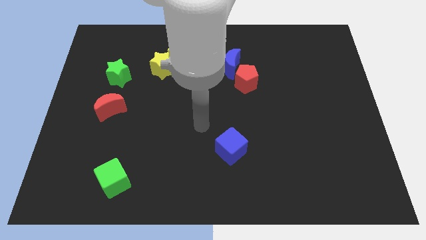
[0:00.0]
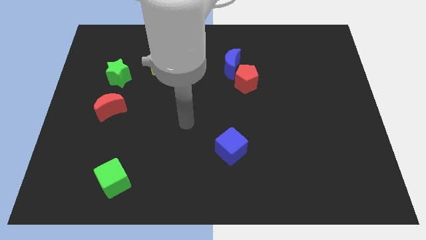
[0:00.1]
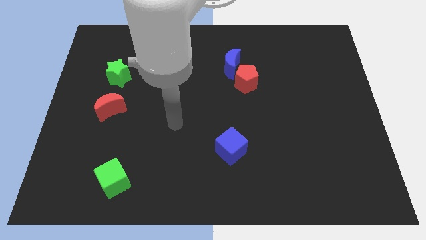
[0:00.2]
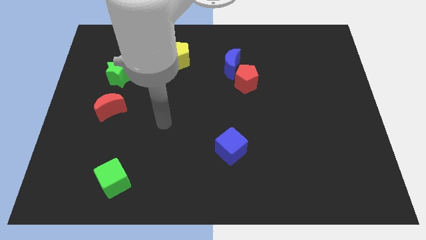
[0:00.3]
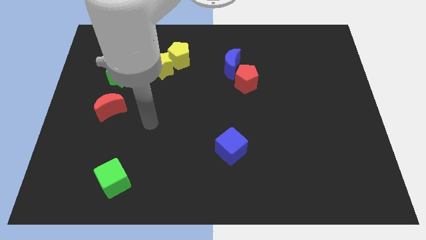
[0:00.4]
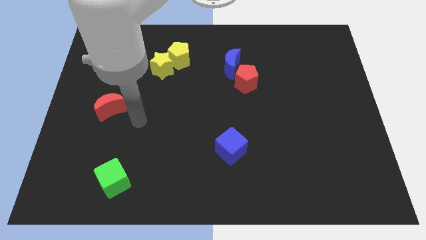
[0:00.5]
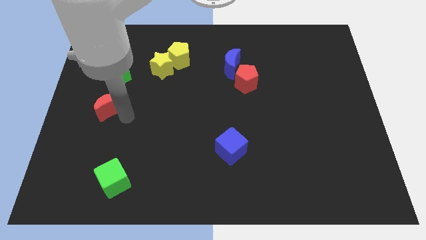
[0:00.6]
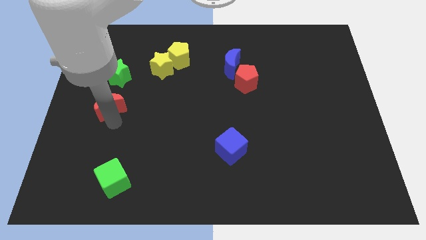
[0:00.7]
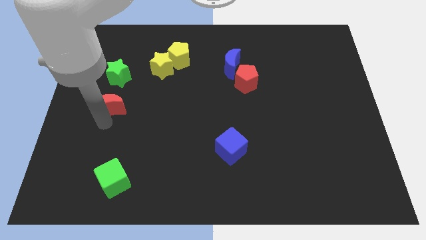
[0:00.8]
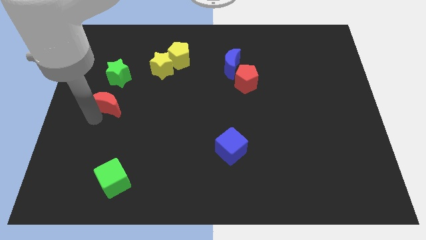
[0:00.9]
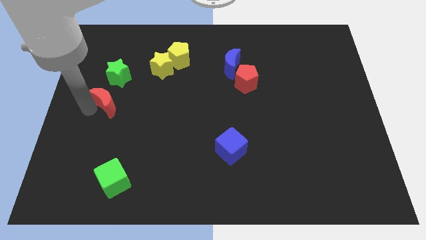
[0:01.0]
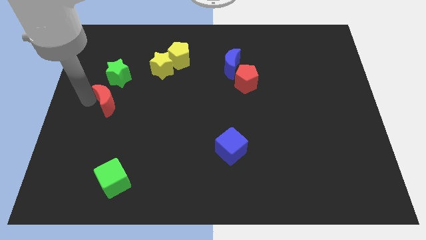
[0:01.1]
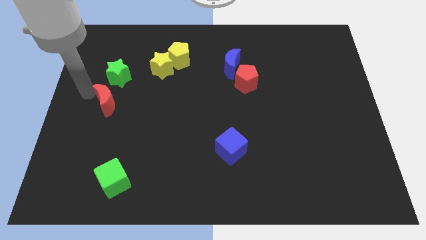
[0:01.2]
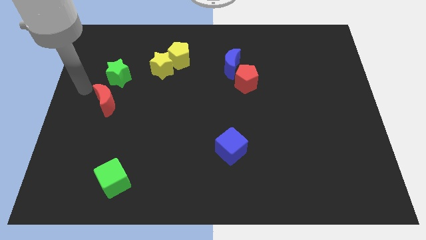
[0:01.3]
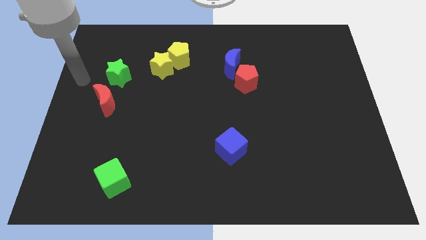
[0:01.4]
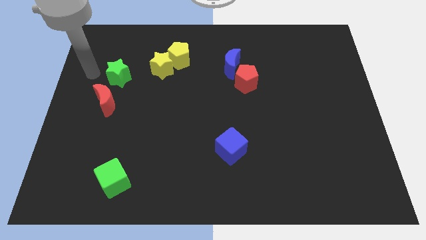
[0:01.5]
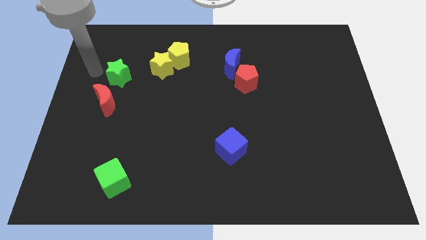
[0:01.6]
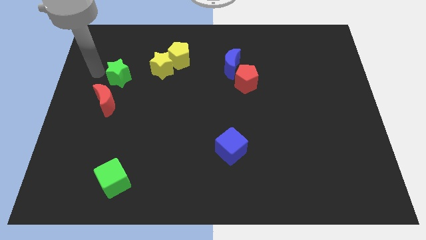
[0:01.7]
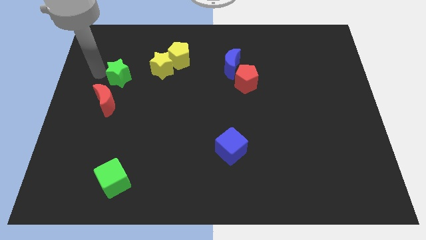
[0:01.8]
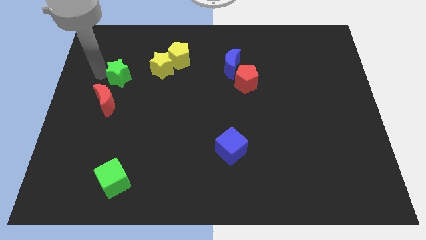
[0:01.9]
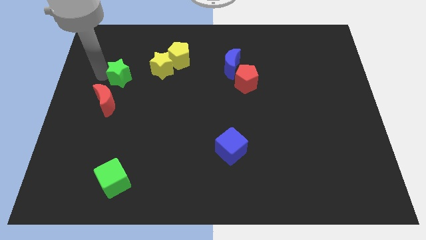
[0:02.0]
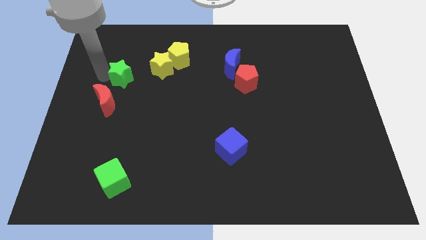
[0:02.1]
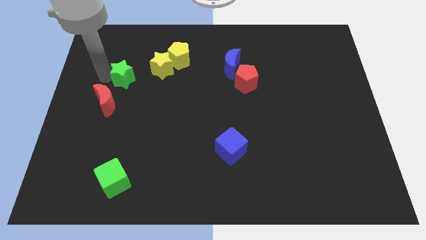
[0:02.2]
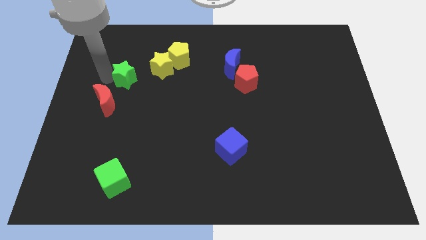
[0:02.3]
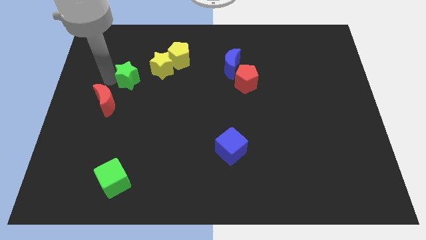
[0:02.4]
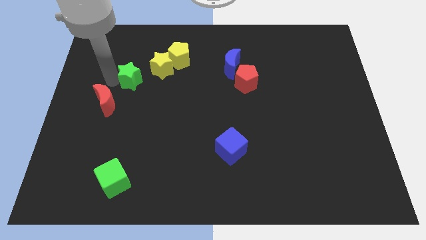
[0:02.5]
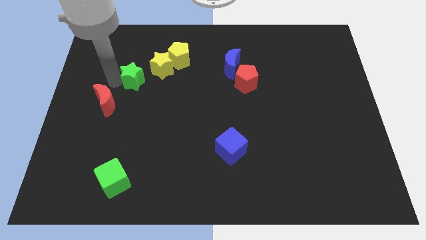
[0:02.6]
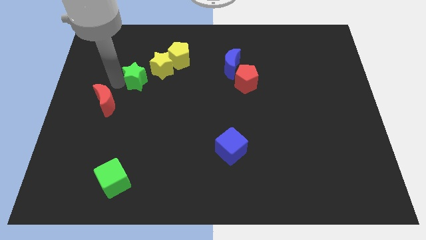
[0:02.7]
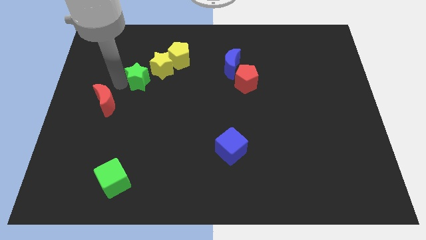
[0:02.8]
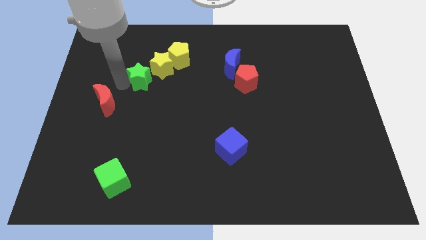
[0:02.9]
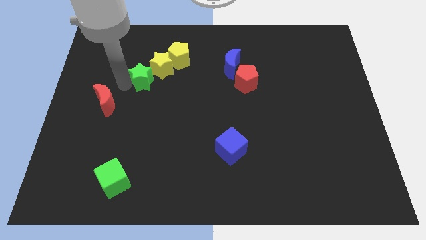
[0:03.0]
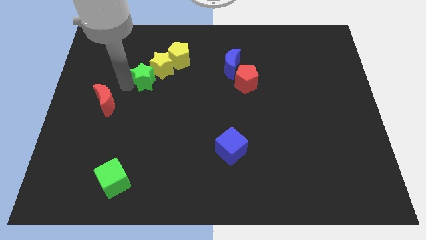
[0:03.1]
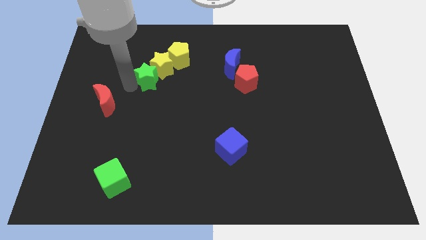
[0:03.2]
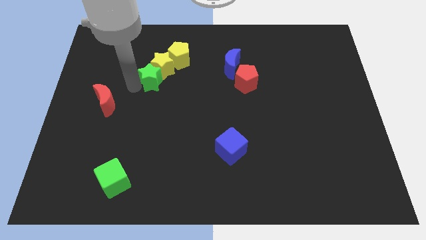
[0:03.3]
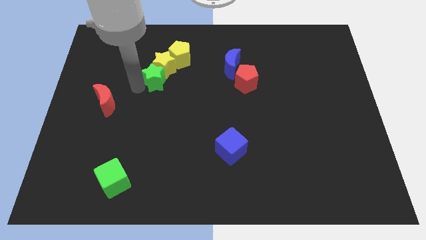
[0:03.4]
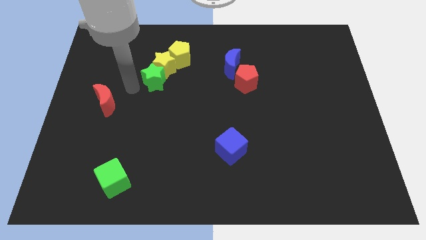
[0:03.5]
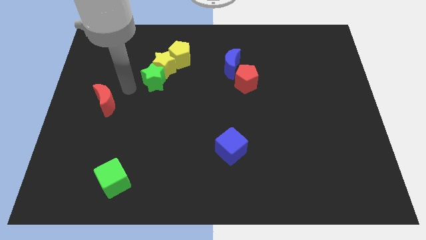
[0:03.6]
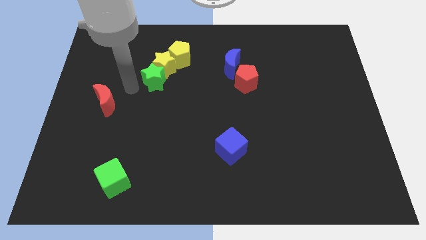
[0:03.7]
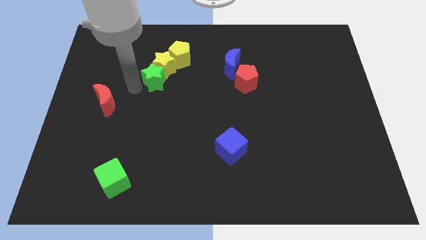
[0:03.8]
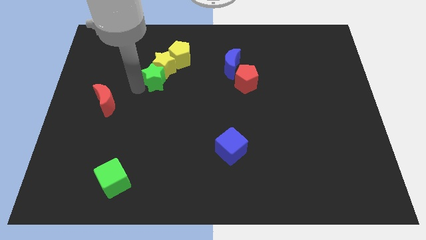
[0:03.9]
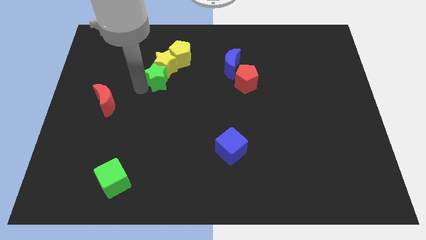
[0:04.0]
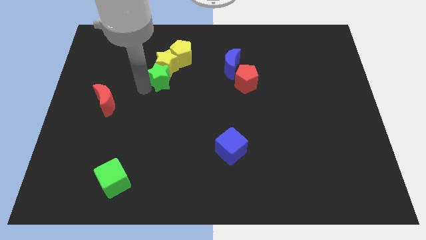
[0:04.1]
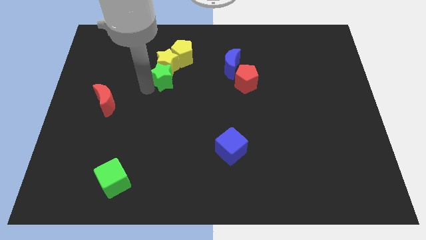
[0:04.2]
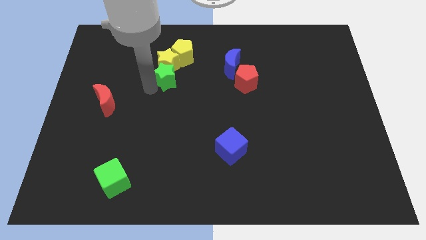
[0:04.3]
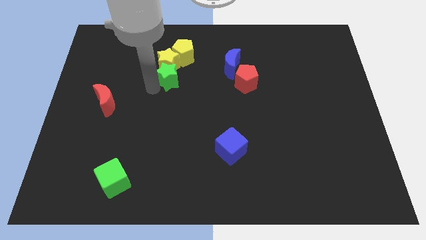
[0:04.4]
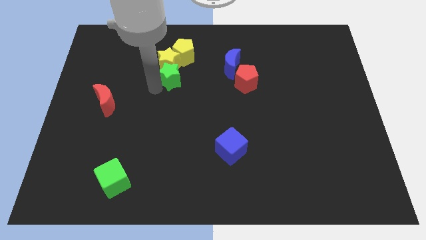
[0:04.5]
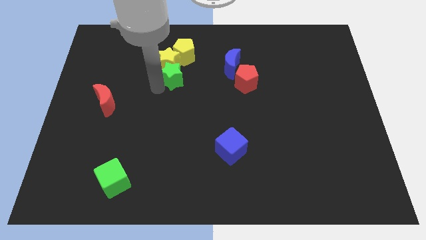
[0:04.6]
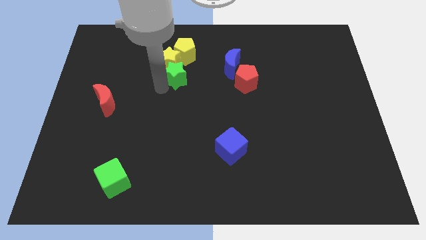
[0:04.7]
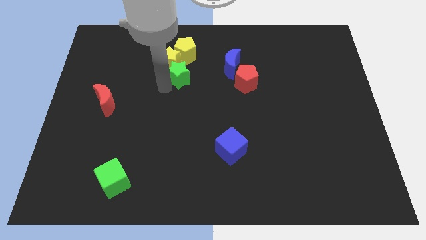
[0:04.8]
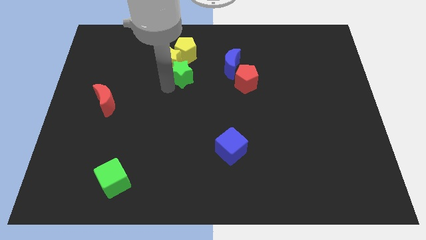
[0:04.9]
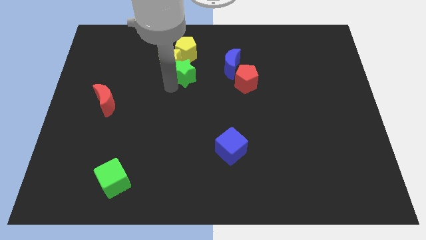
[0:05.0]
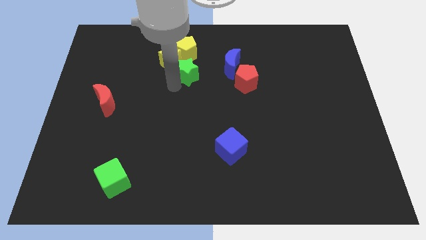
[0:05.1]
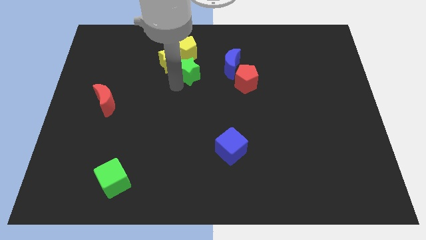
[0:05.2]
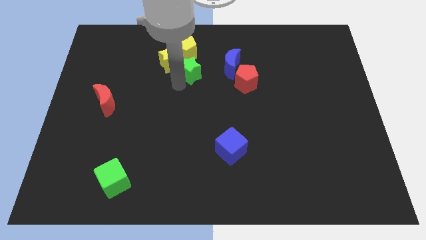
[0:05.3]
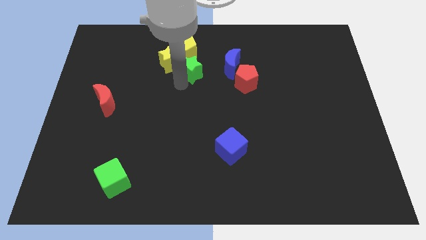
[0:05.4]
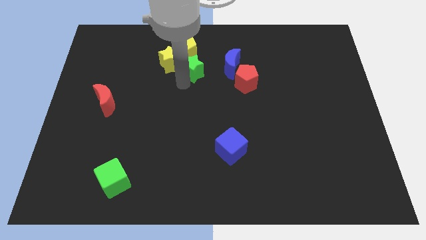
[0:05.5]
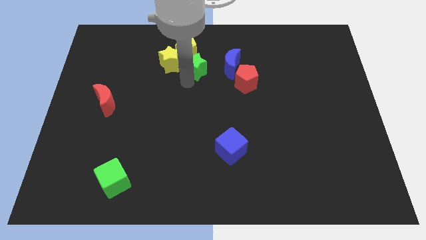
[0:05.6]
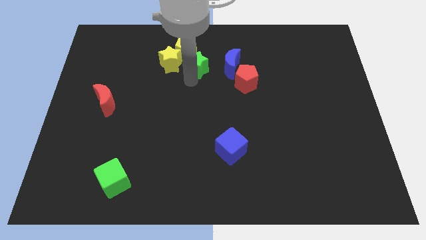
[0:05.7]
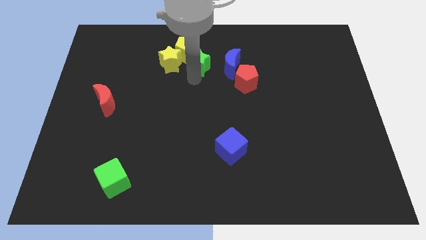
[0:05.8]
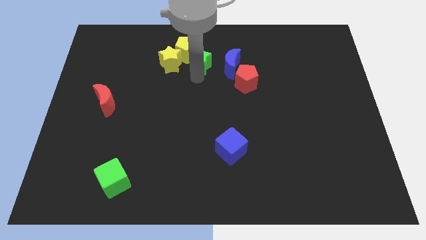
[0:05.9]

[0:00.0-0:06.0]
put the green star to the right of the yellow pentagon
